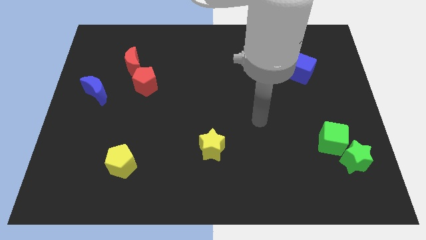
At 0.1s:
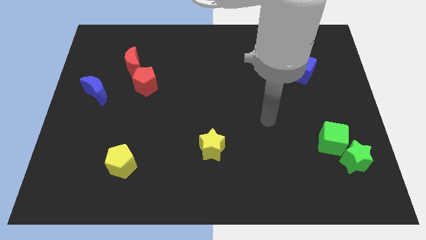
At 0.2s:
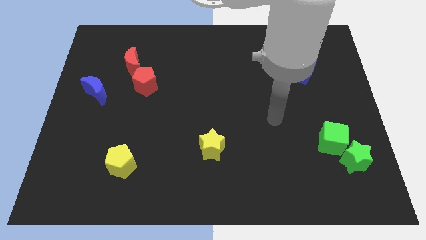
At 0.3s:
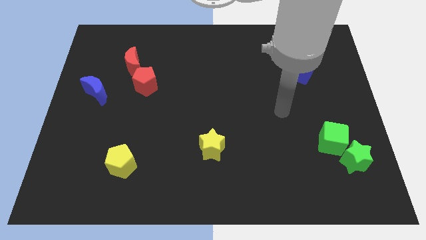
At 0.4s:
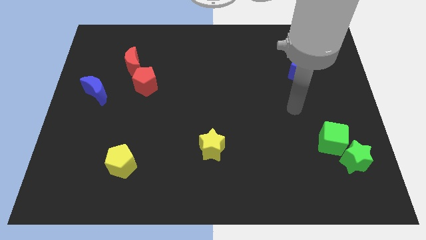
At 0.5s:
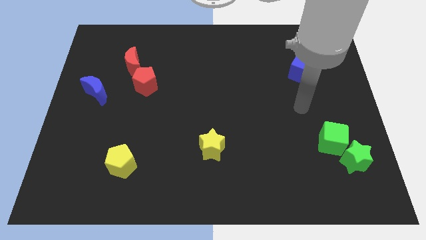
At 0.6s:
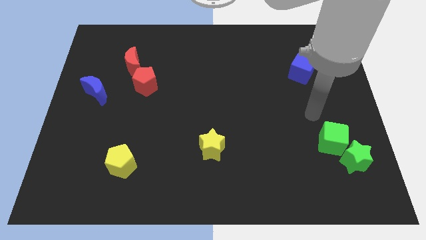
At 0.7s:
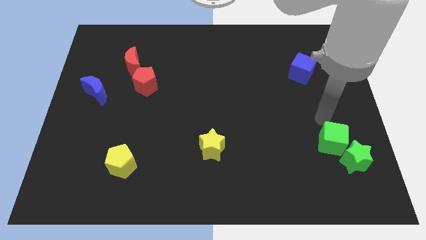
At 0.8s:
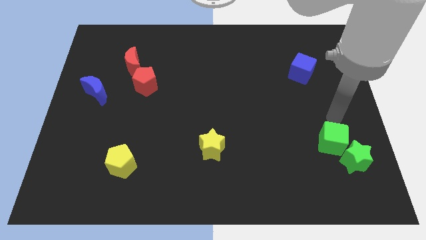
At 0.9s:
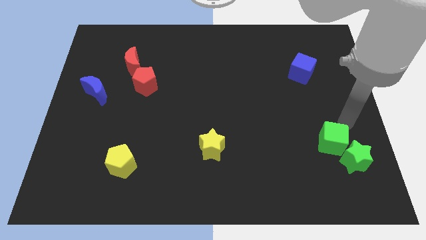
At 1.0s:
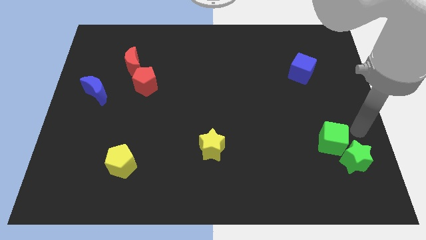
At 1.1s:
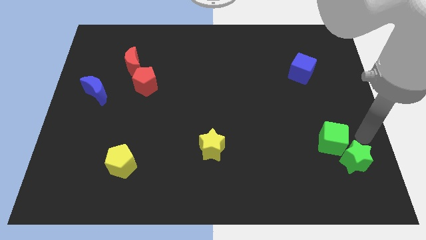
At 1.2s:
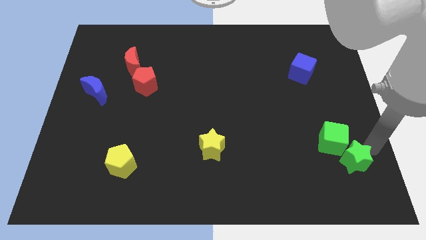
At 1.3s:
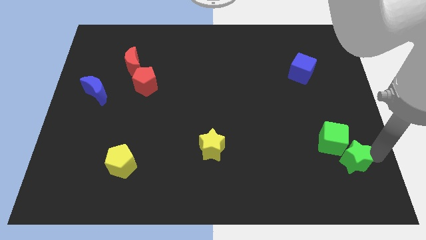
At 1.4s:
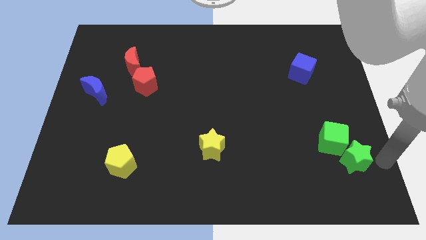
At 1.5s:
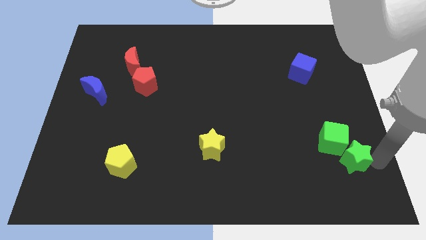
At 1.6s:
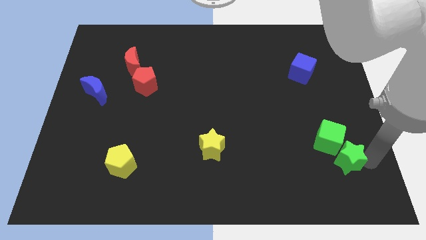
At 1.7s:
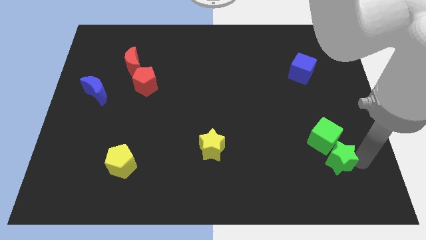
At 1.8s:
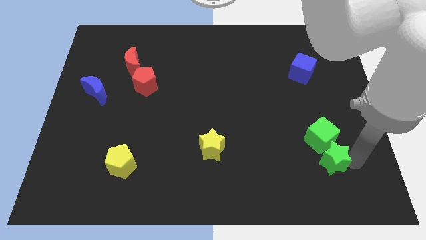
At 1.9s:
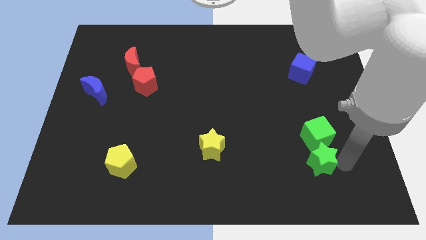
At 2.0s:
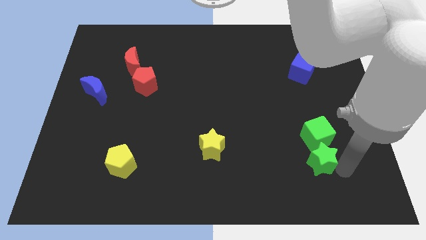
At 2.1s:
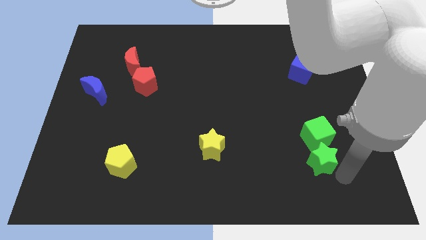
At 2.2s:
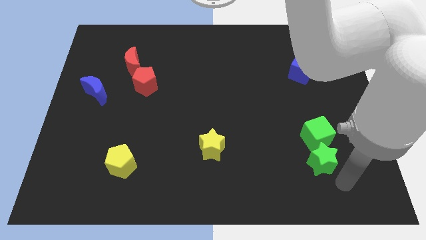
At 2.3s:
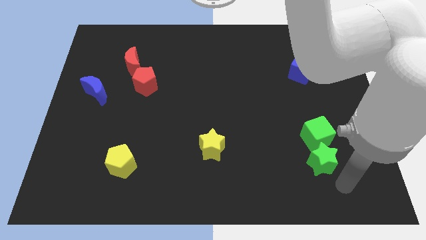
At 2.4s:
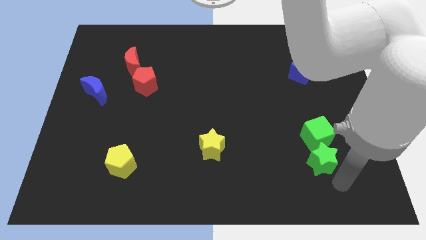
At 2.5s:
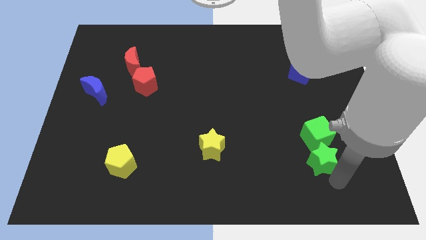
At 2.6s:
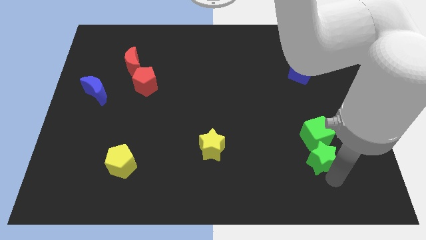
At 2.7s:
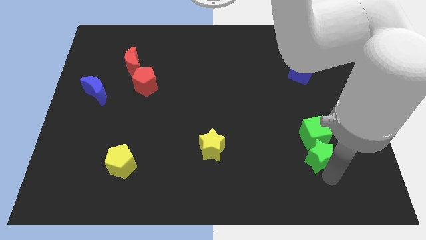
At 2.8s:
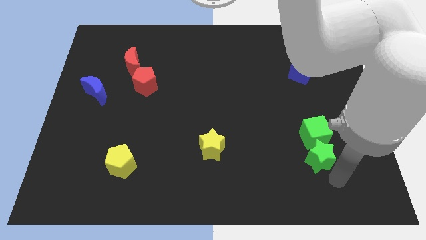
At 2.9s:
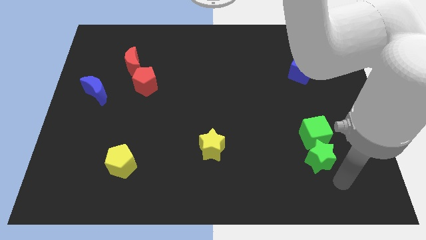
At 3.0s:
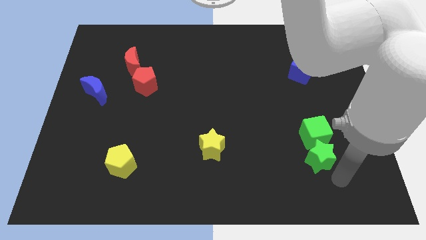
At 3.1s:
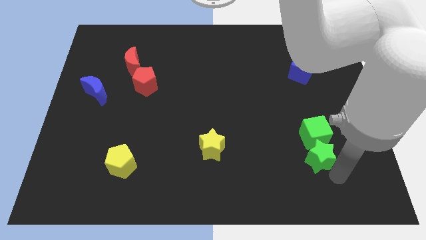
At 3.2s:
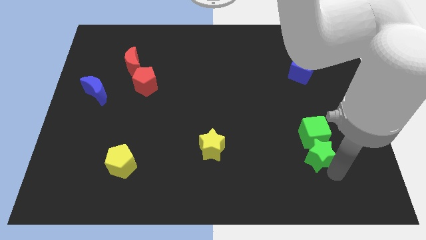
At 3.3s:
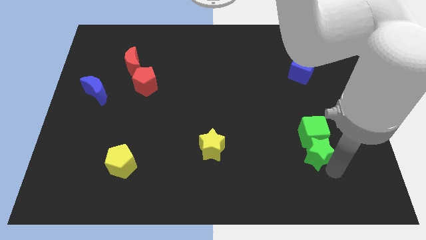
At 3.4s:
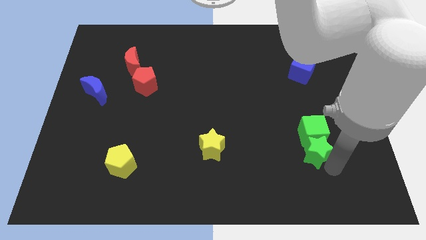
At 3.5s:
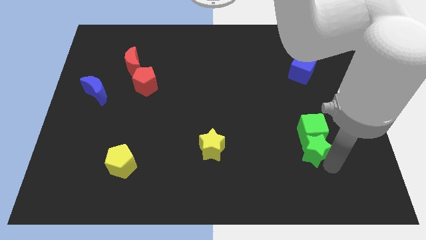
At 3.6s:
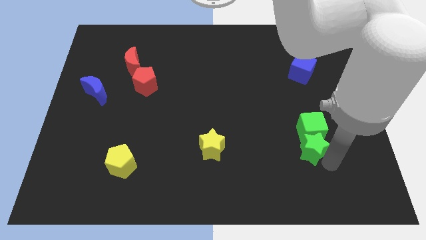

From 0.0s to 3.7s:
slightly move the green star upwards and to the left

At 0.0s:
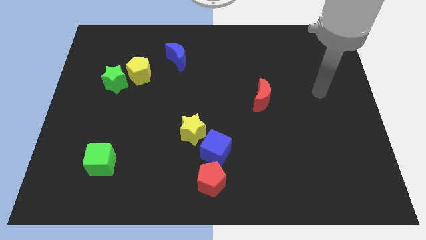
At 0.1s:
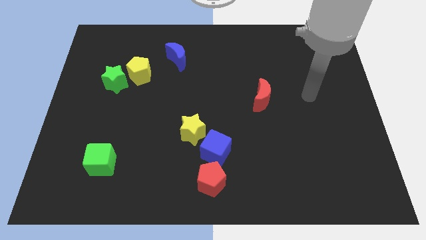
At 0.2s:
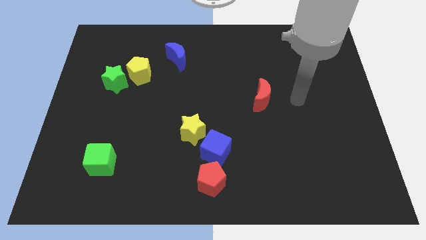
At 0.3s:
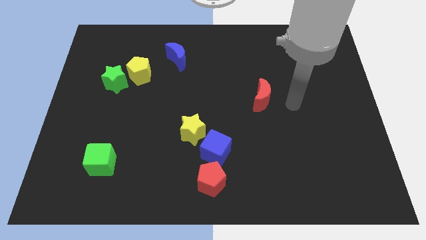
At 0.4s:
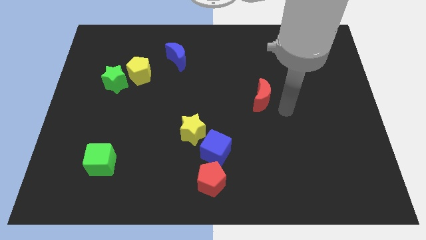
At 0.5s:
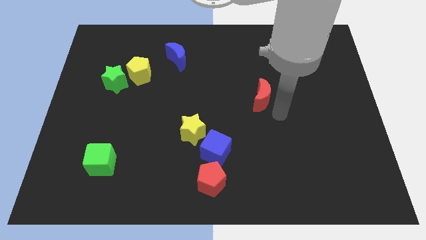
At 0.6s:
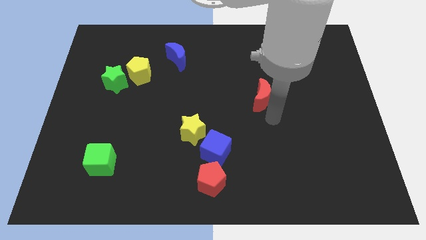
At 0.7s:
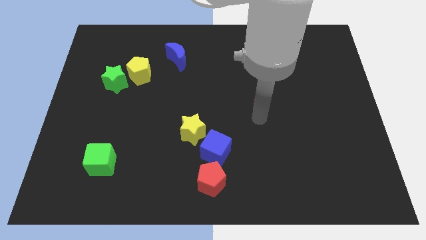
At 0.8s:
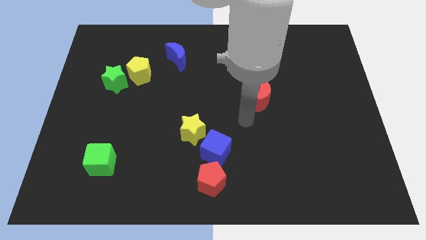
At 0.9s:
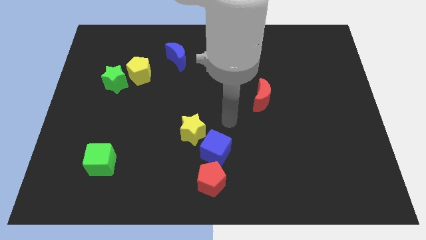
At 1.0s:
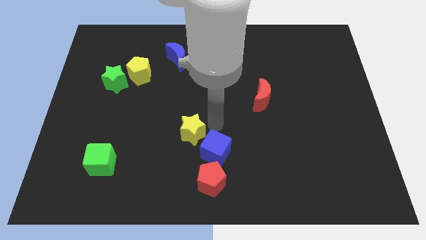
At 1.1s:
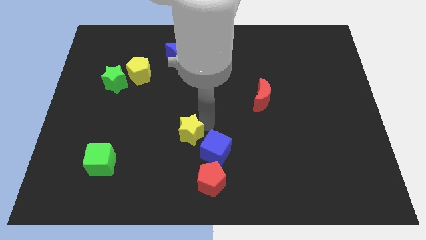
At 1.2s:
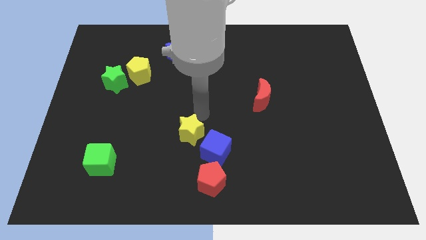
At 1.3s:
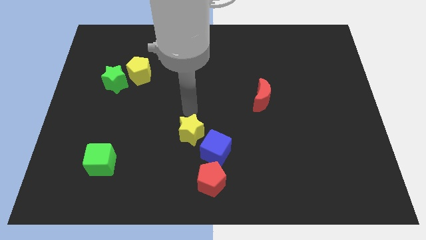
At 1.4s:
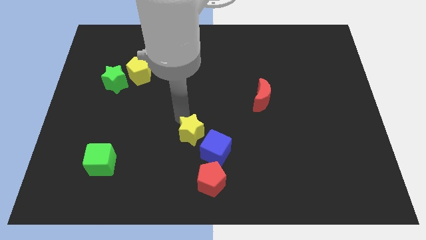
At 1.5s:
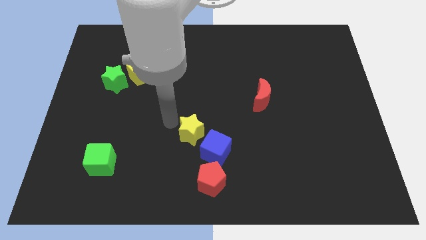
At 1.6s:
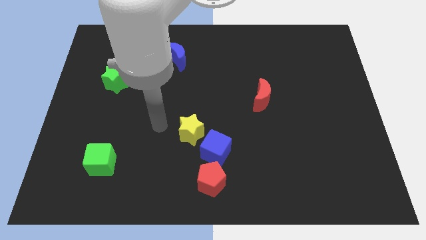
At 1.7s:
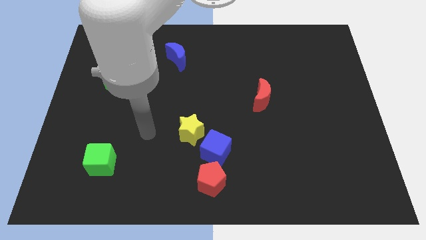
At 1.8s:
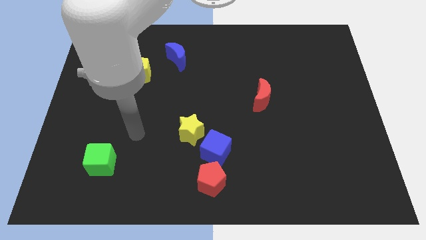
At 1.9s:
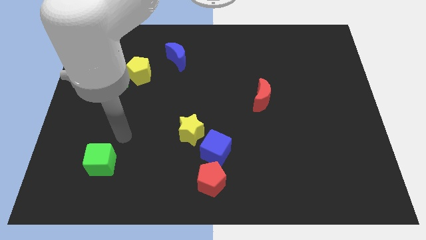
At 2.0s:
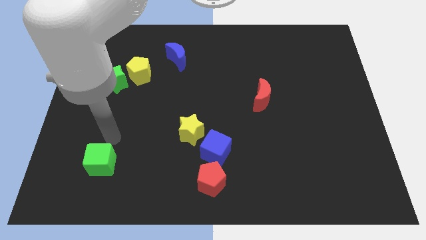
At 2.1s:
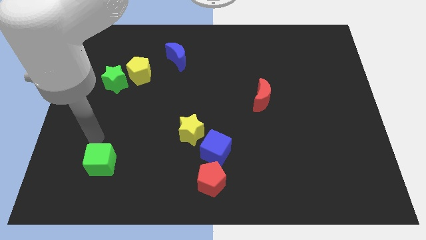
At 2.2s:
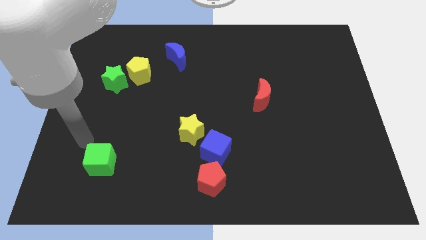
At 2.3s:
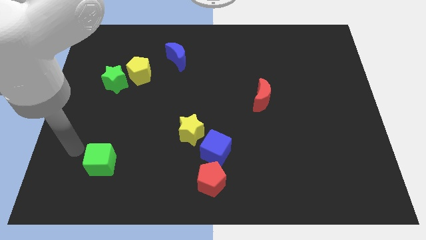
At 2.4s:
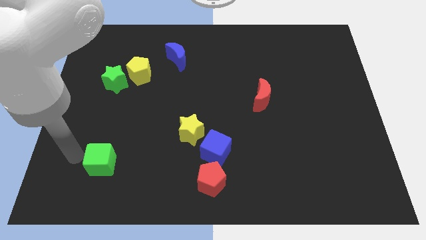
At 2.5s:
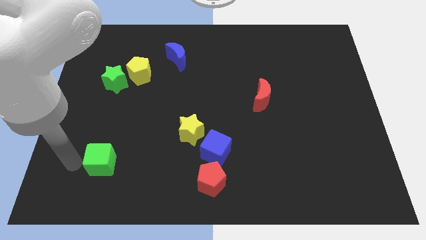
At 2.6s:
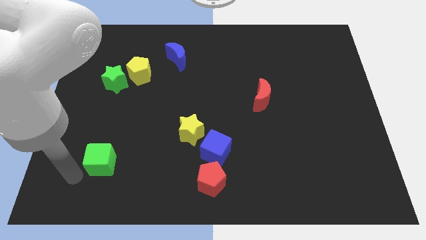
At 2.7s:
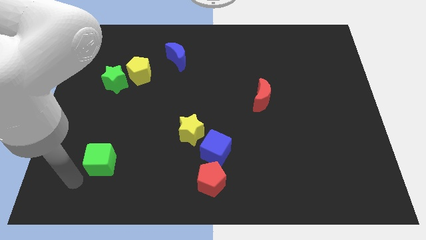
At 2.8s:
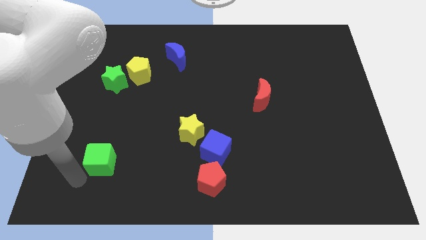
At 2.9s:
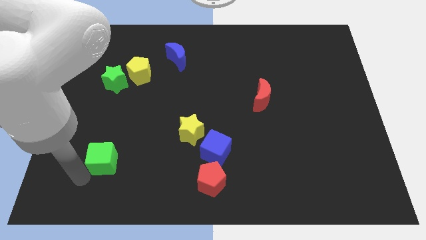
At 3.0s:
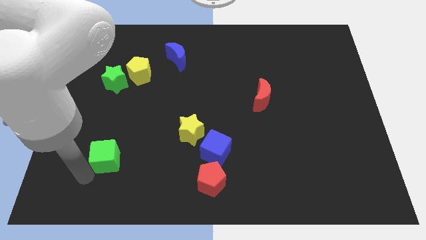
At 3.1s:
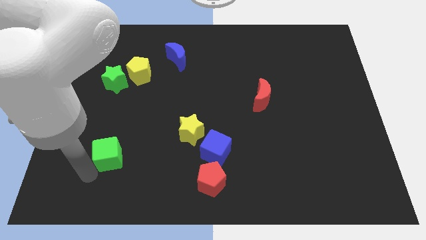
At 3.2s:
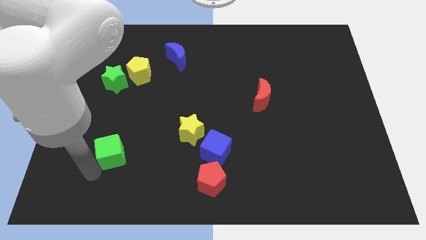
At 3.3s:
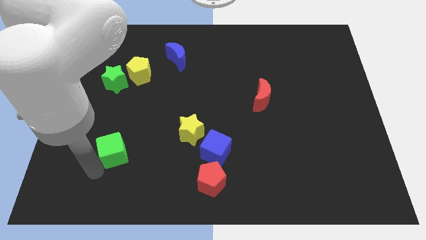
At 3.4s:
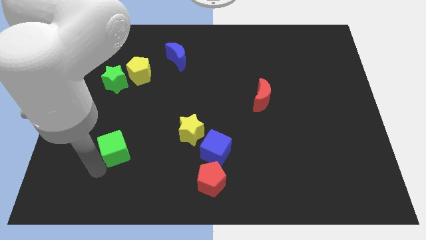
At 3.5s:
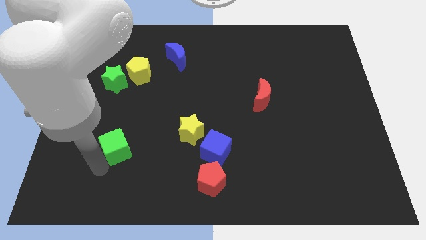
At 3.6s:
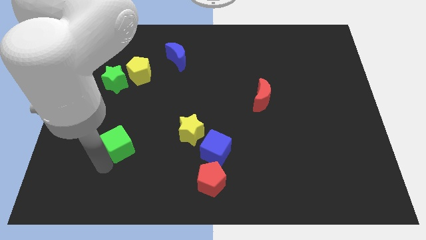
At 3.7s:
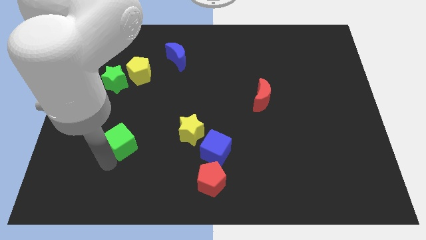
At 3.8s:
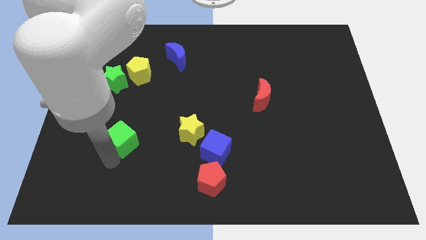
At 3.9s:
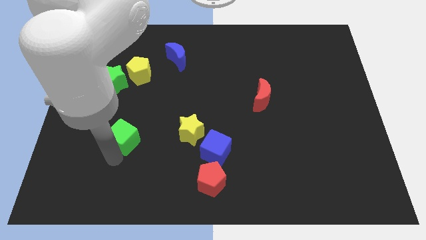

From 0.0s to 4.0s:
slide the green cube slightly diagonally upwards and right

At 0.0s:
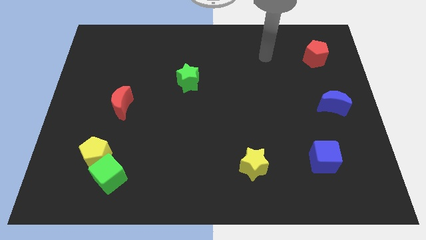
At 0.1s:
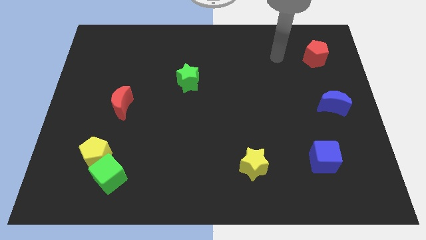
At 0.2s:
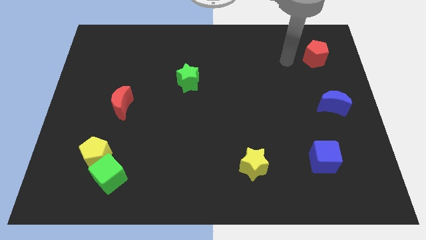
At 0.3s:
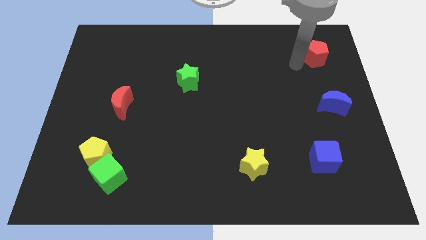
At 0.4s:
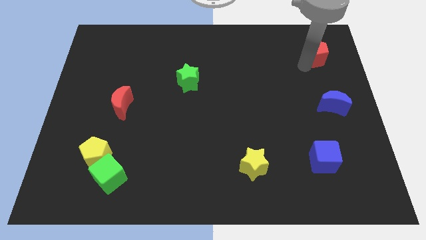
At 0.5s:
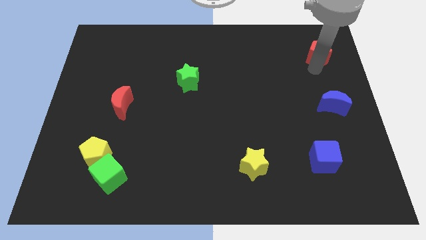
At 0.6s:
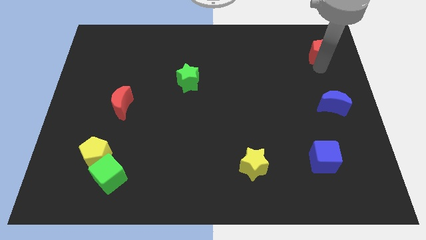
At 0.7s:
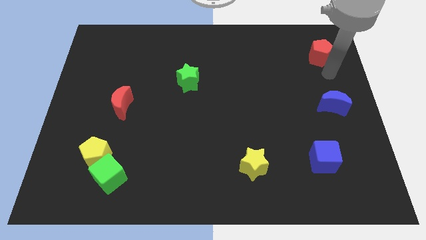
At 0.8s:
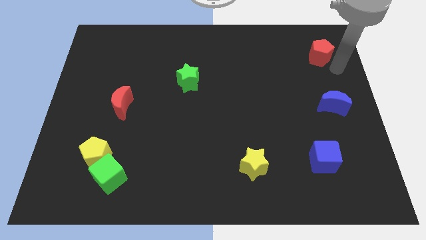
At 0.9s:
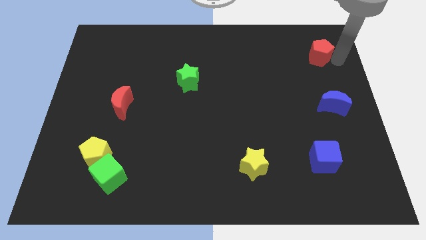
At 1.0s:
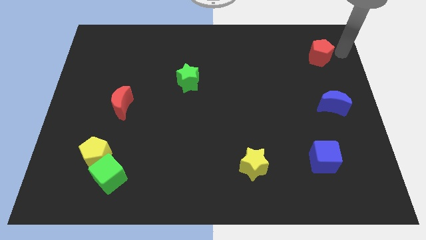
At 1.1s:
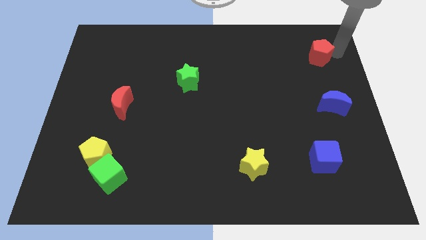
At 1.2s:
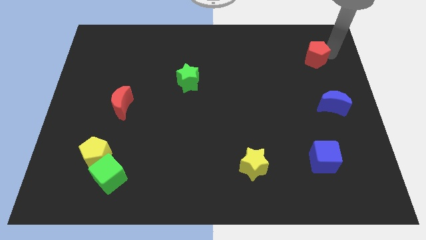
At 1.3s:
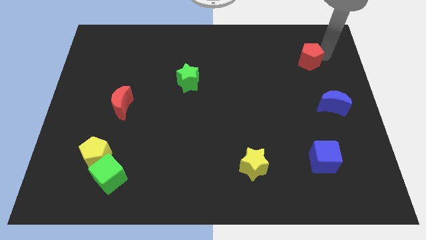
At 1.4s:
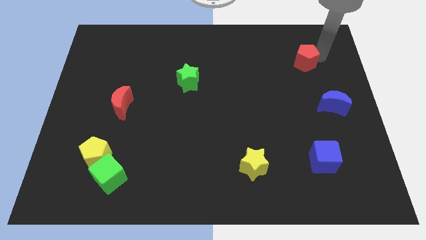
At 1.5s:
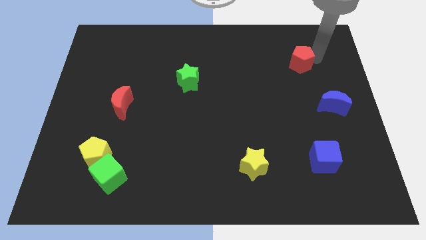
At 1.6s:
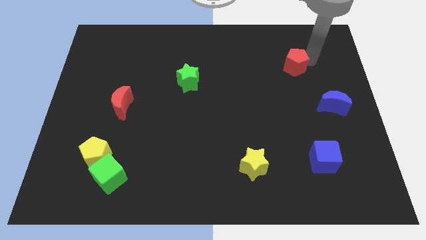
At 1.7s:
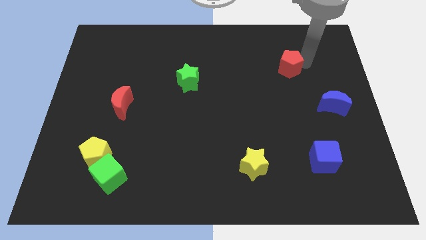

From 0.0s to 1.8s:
push the red pentagon a little to the left
